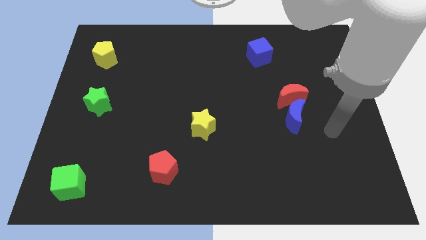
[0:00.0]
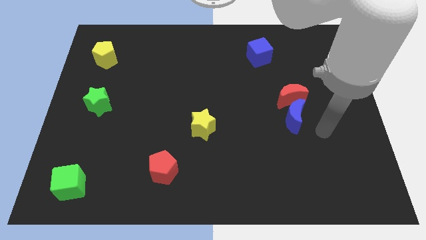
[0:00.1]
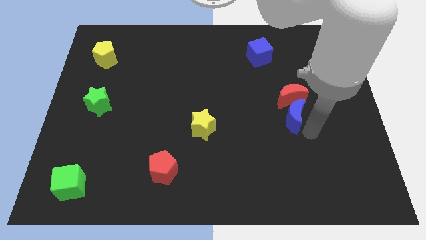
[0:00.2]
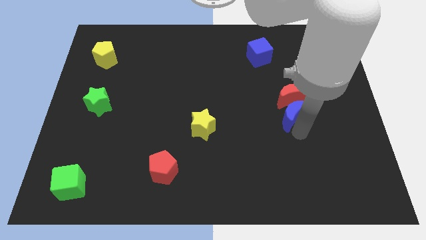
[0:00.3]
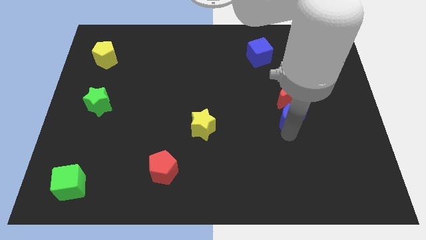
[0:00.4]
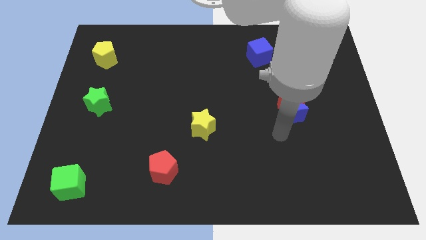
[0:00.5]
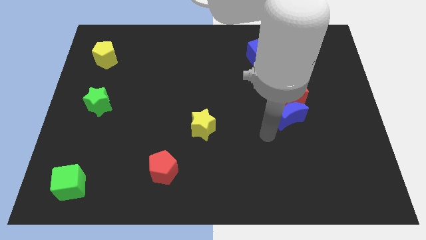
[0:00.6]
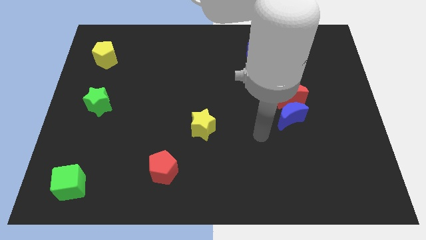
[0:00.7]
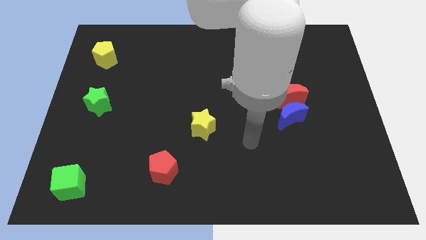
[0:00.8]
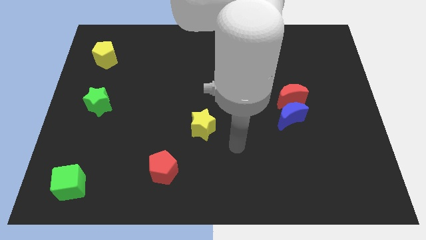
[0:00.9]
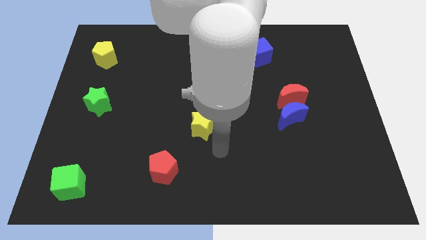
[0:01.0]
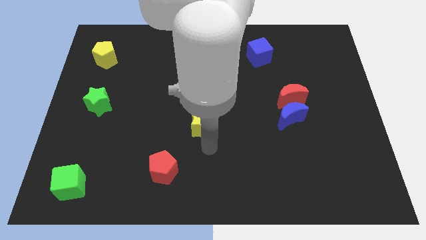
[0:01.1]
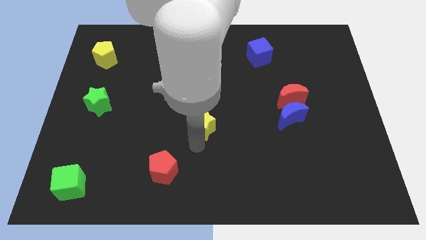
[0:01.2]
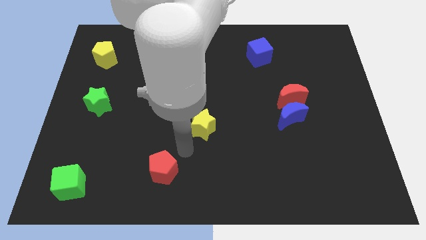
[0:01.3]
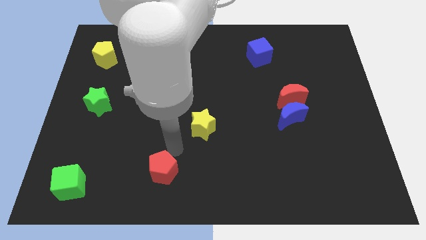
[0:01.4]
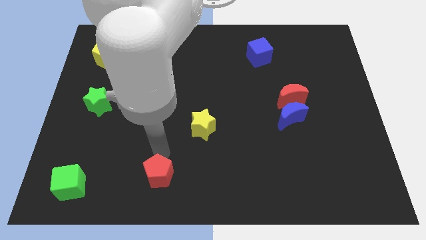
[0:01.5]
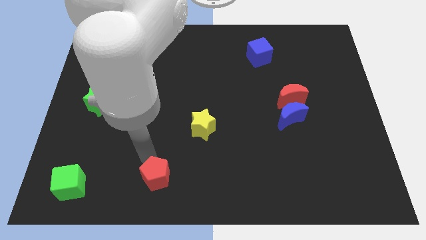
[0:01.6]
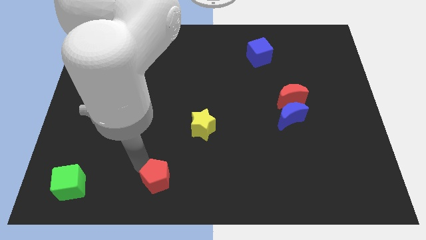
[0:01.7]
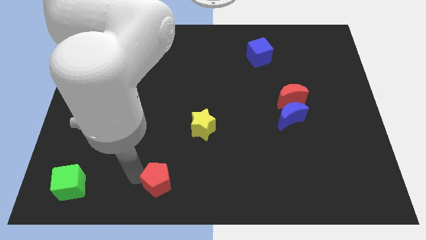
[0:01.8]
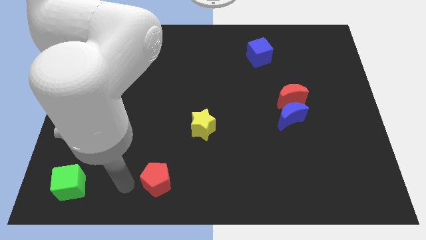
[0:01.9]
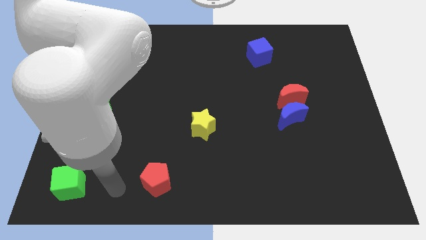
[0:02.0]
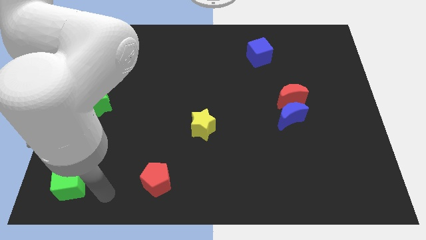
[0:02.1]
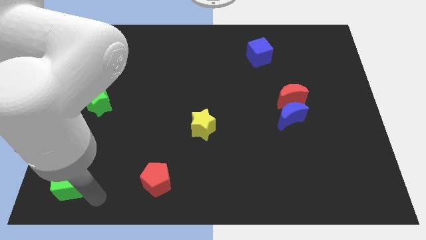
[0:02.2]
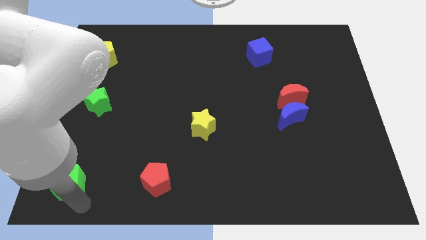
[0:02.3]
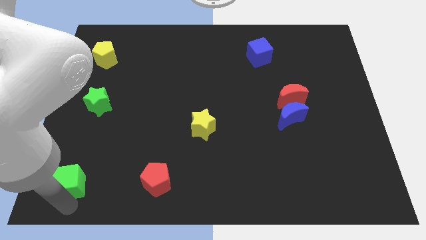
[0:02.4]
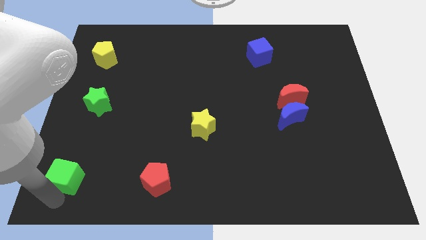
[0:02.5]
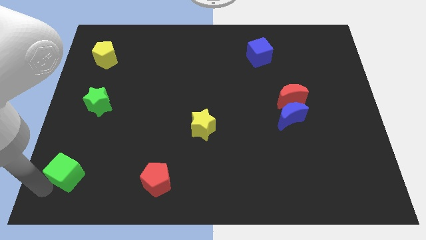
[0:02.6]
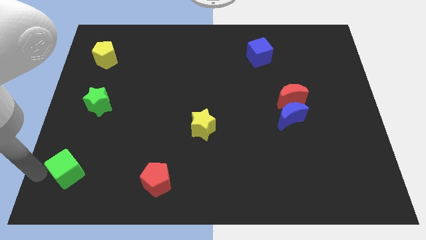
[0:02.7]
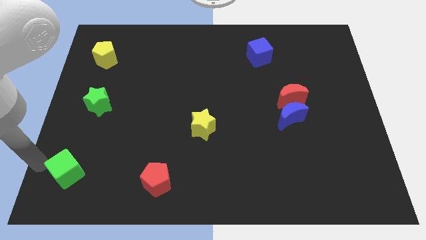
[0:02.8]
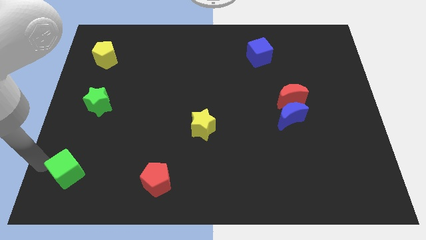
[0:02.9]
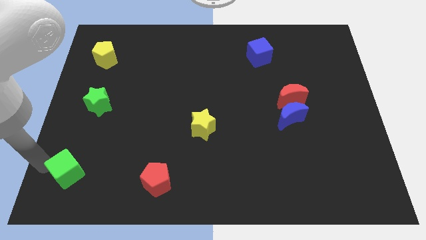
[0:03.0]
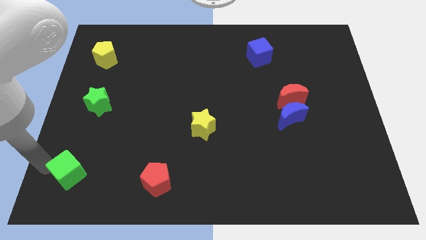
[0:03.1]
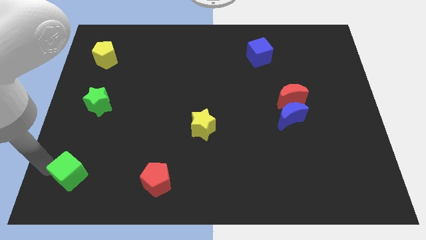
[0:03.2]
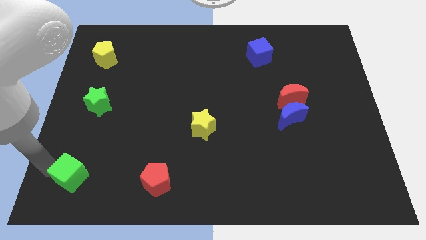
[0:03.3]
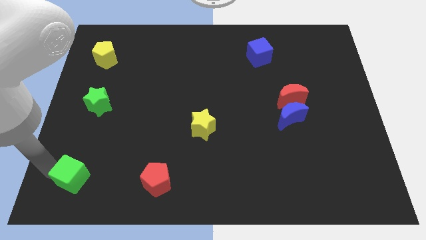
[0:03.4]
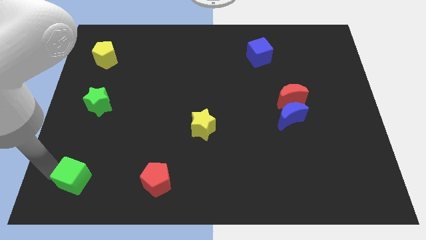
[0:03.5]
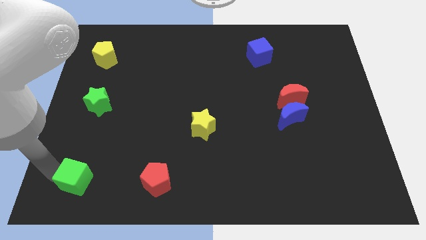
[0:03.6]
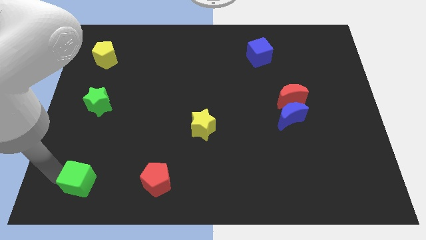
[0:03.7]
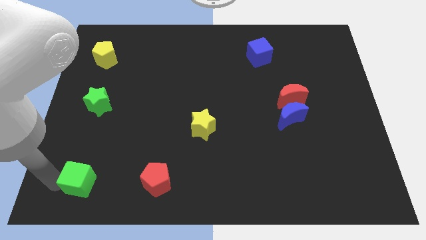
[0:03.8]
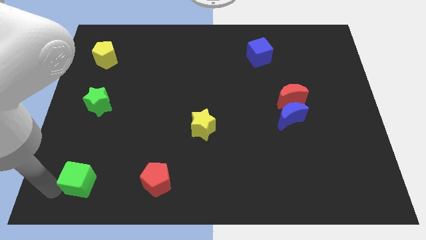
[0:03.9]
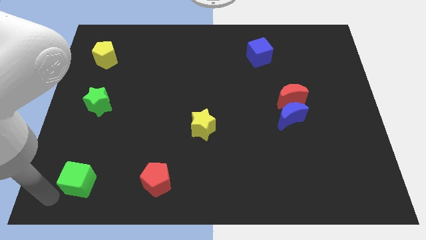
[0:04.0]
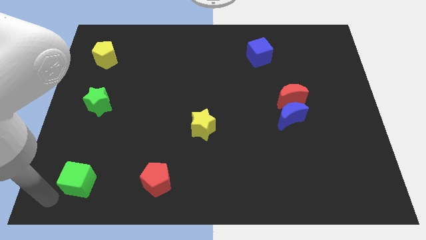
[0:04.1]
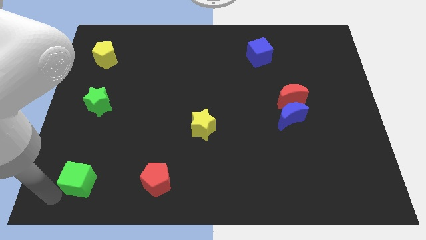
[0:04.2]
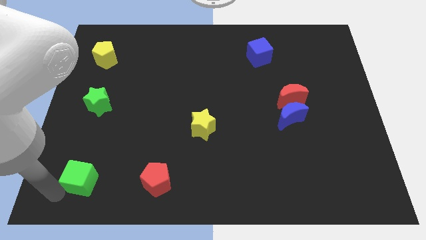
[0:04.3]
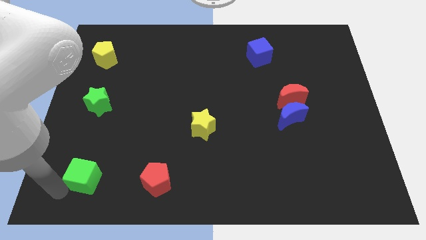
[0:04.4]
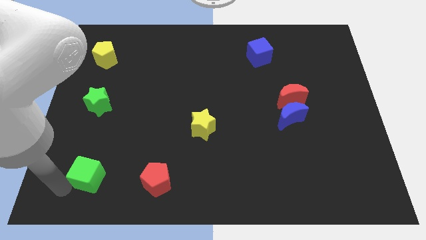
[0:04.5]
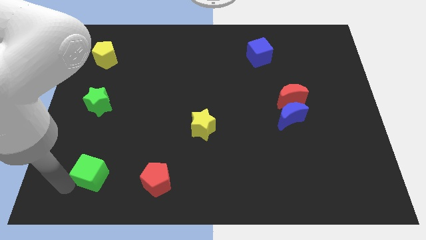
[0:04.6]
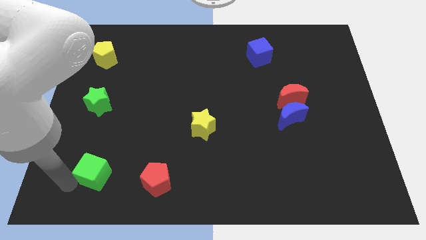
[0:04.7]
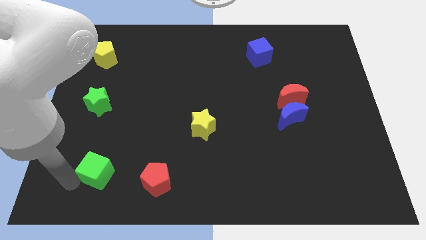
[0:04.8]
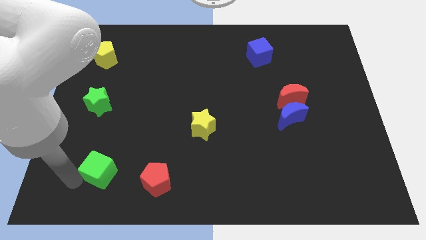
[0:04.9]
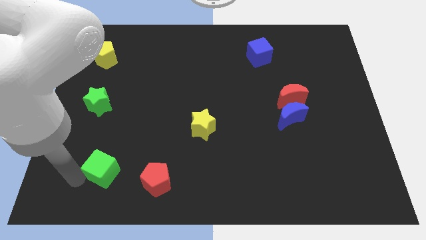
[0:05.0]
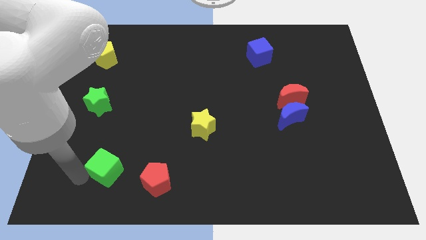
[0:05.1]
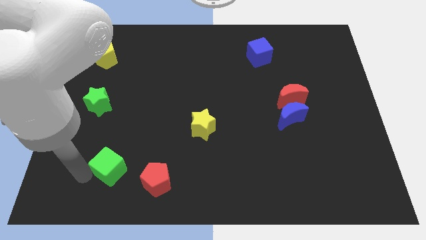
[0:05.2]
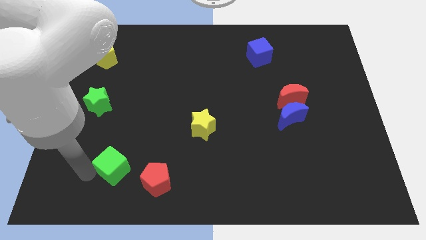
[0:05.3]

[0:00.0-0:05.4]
move the green cube diagonally up and to the left of the red pentagon
